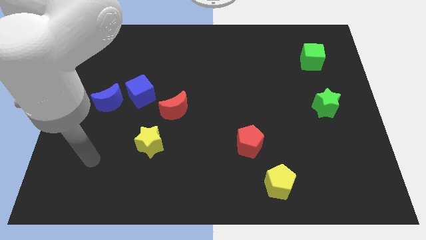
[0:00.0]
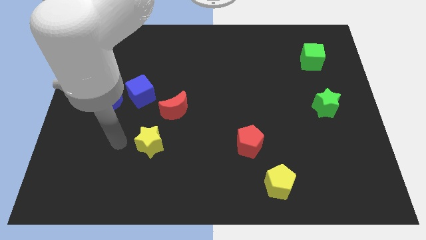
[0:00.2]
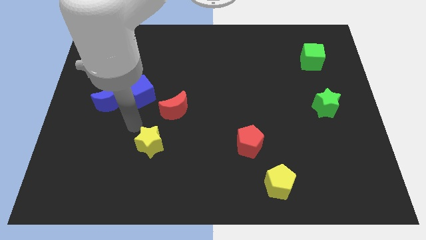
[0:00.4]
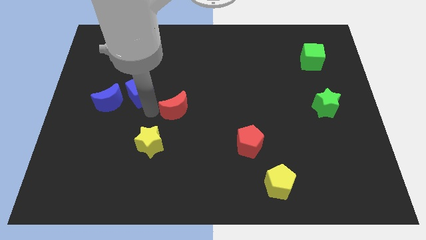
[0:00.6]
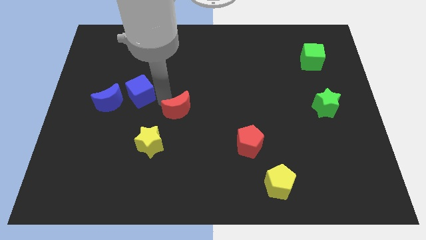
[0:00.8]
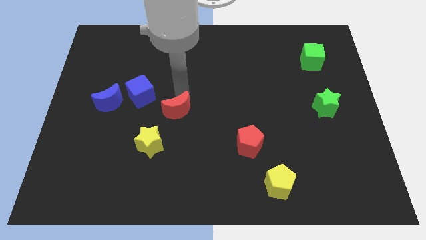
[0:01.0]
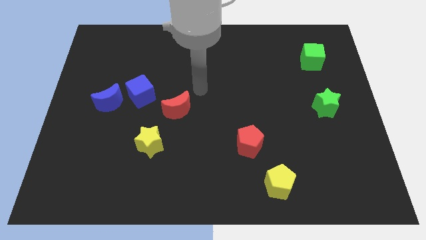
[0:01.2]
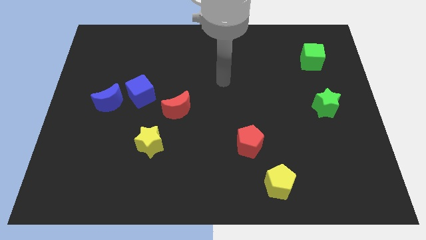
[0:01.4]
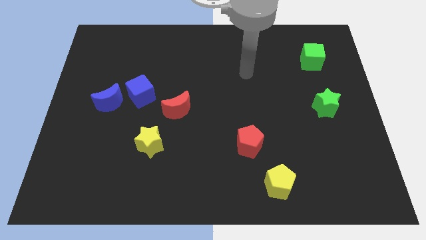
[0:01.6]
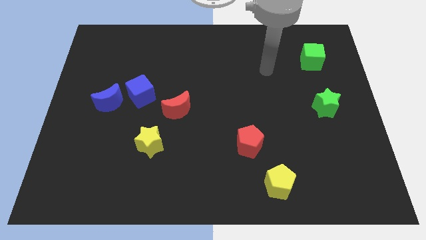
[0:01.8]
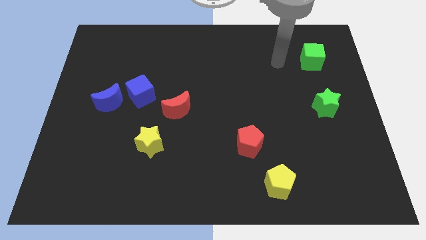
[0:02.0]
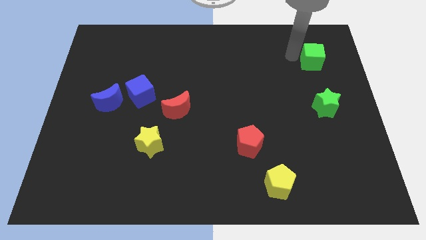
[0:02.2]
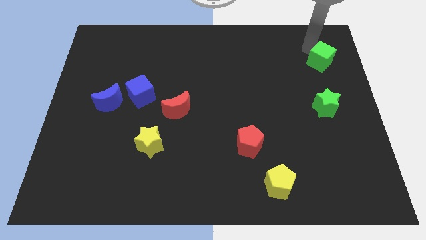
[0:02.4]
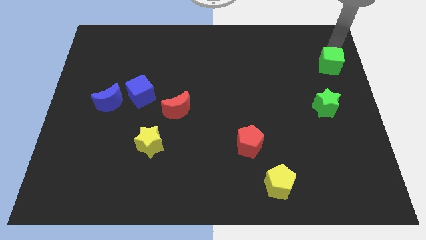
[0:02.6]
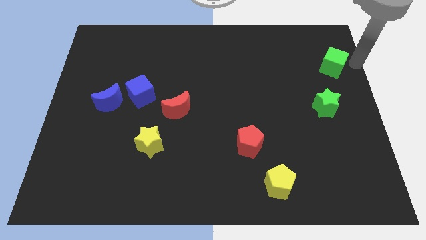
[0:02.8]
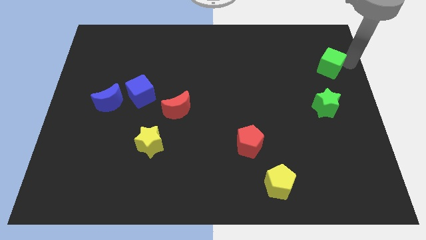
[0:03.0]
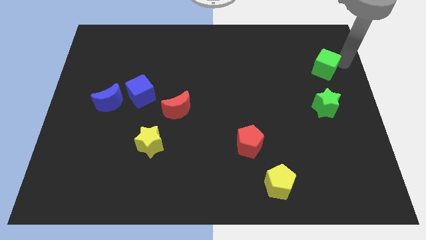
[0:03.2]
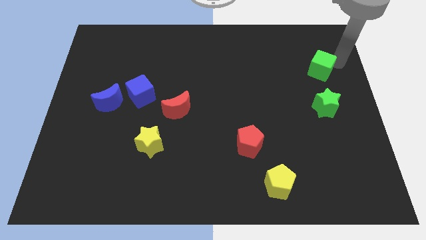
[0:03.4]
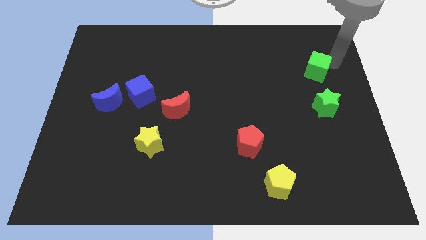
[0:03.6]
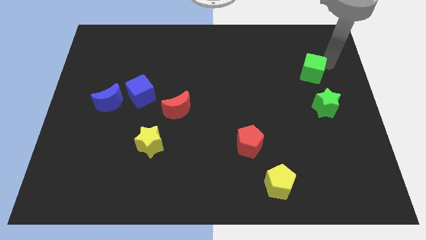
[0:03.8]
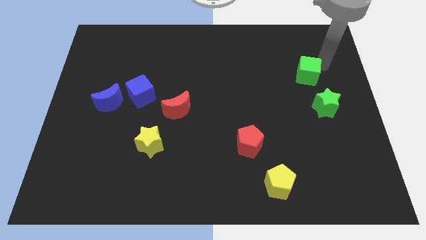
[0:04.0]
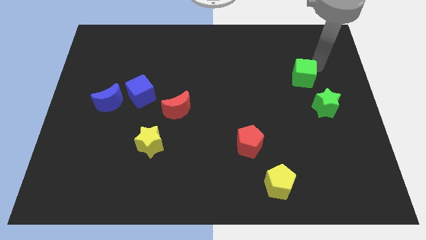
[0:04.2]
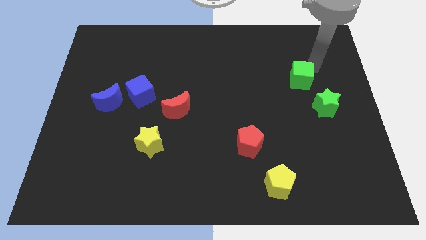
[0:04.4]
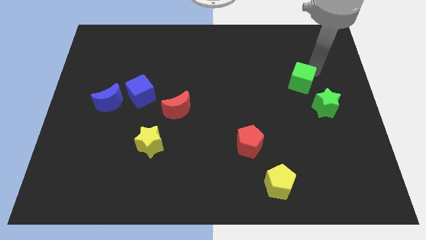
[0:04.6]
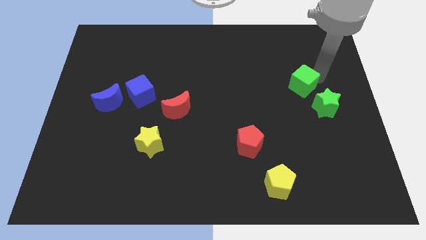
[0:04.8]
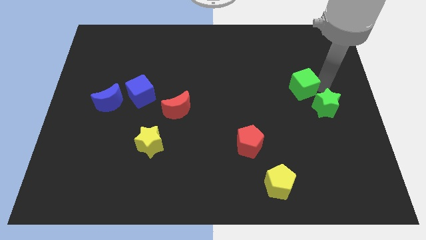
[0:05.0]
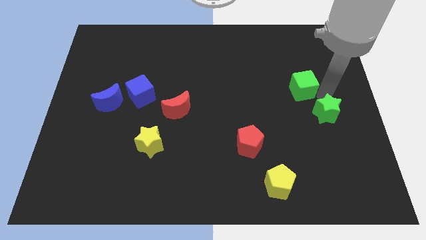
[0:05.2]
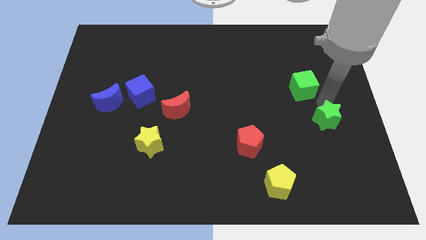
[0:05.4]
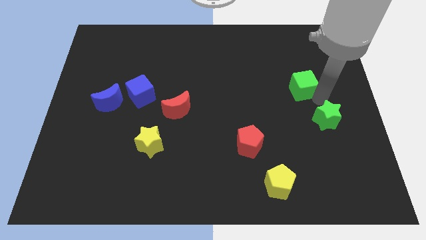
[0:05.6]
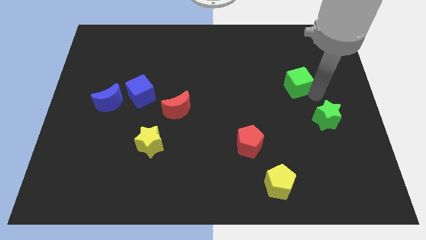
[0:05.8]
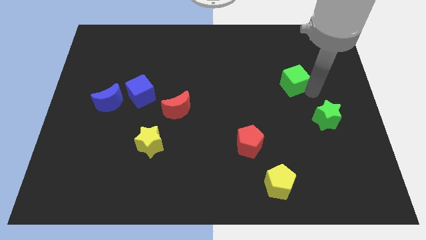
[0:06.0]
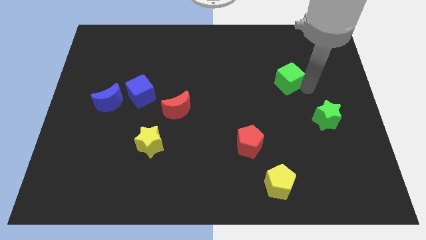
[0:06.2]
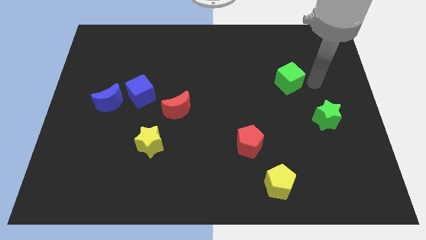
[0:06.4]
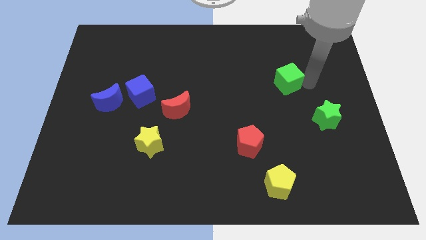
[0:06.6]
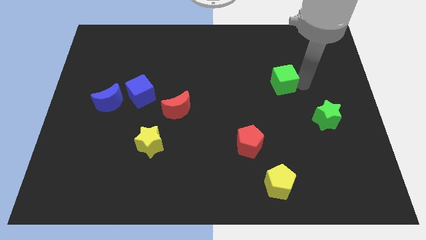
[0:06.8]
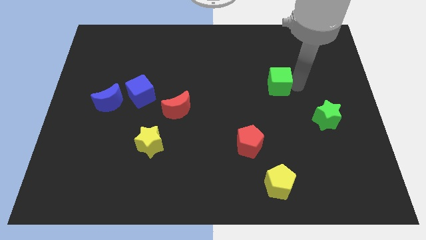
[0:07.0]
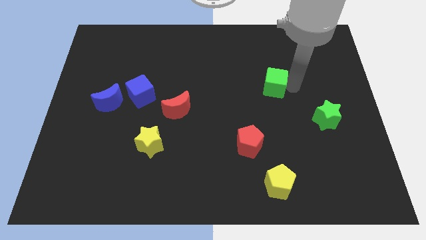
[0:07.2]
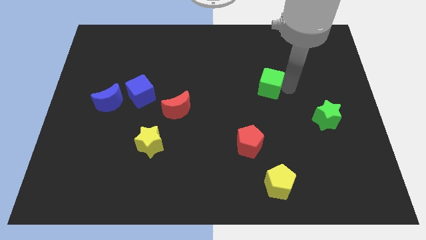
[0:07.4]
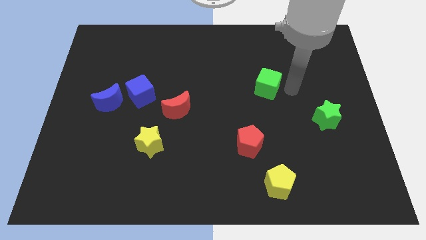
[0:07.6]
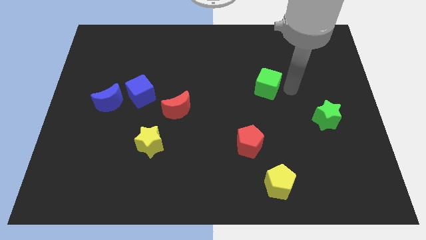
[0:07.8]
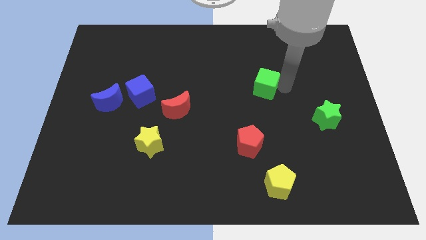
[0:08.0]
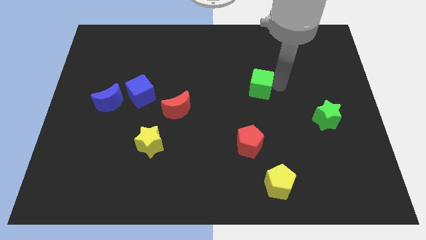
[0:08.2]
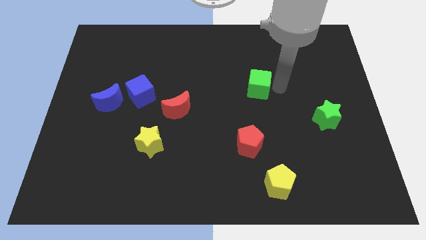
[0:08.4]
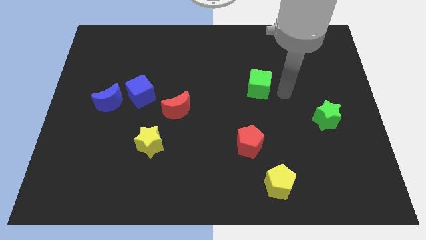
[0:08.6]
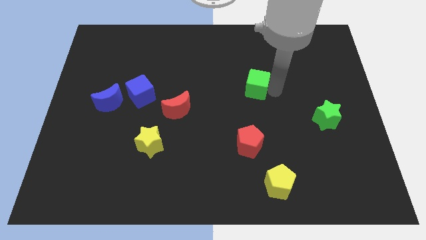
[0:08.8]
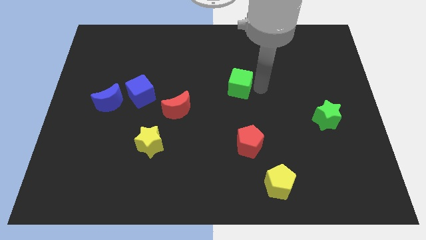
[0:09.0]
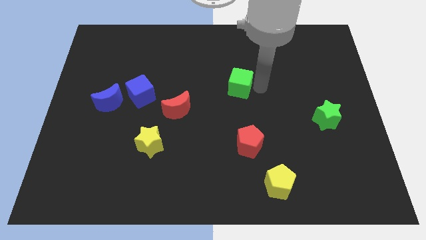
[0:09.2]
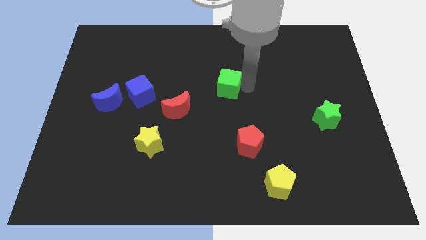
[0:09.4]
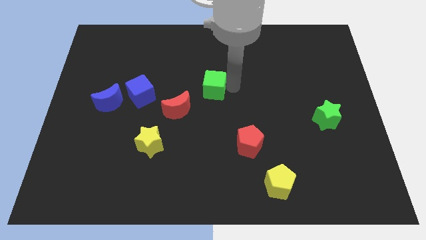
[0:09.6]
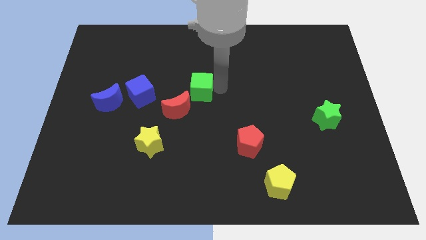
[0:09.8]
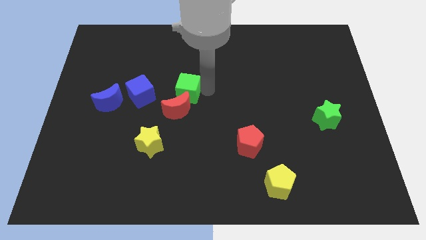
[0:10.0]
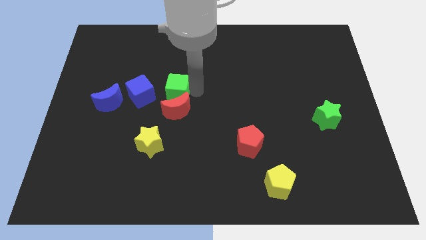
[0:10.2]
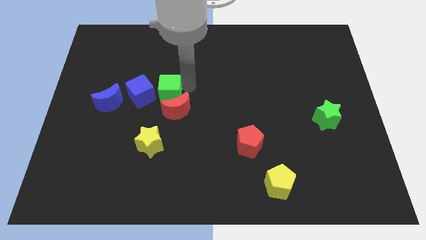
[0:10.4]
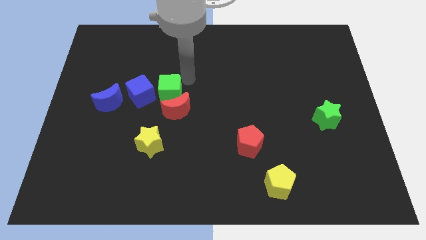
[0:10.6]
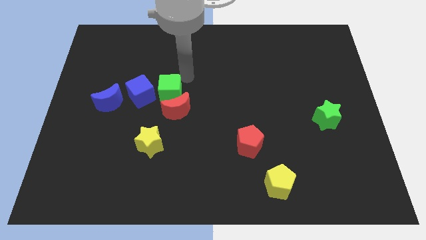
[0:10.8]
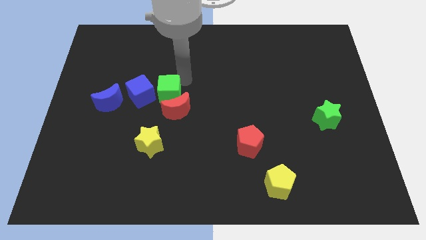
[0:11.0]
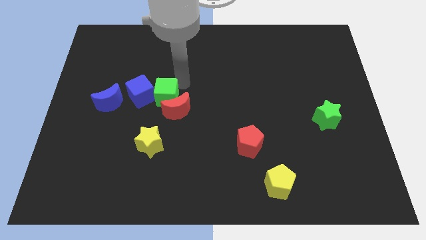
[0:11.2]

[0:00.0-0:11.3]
move the green cube to the left side of the red moon

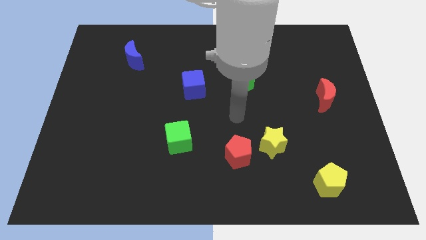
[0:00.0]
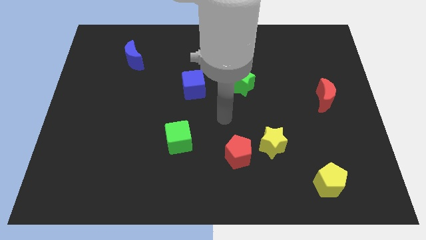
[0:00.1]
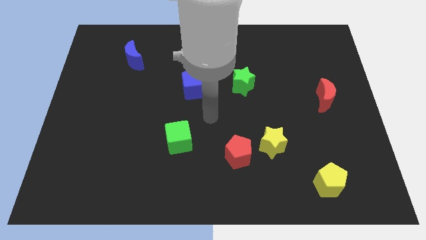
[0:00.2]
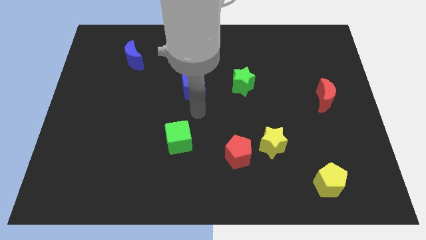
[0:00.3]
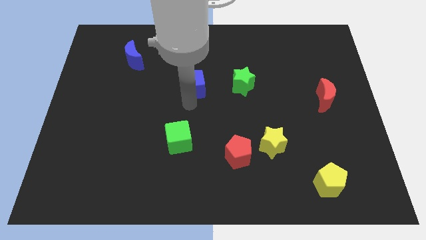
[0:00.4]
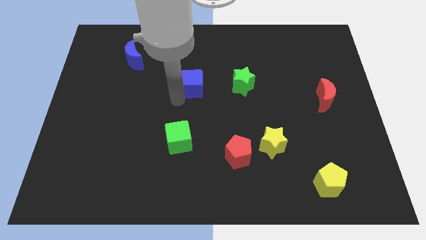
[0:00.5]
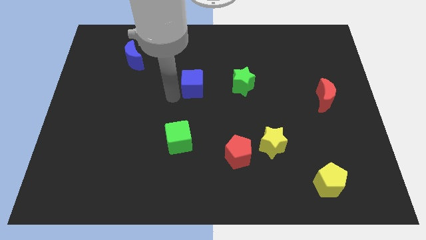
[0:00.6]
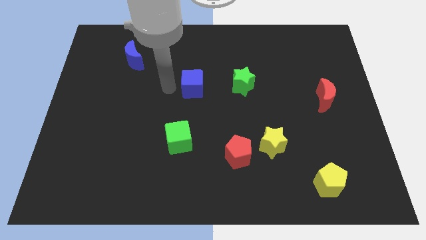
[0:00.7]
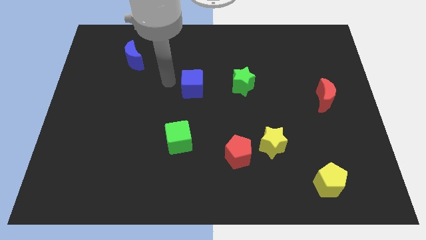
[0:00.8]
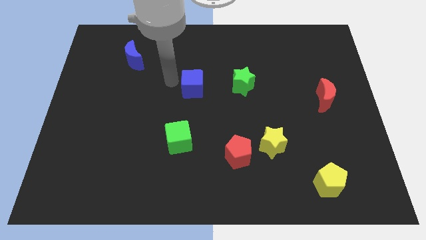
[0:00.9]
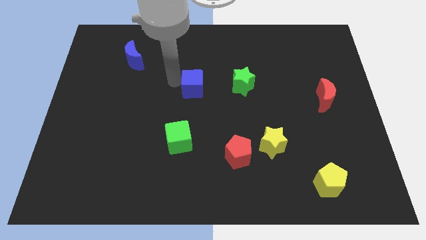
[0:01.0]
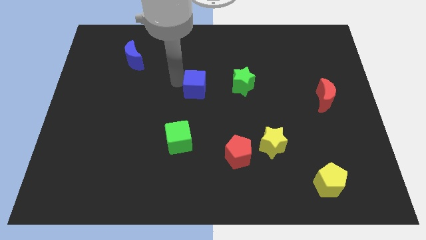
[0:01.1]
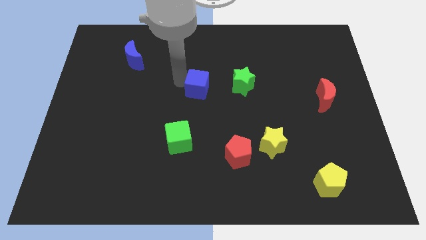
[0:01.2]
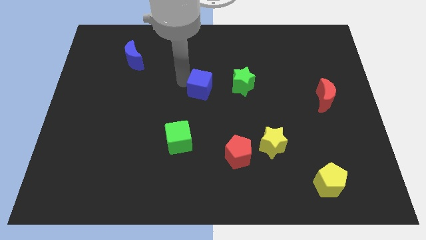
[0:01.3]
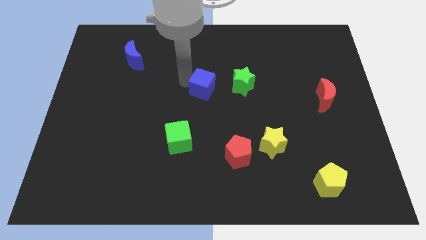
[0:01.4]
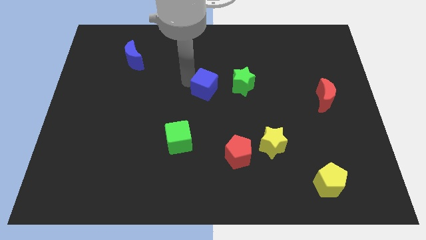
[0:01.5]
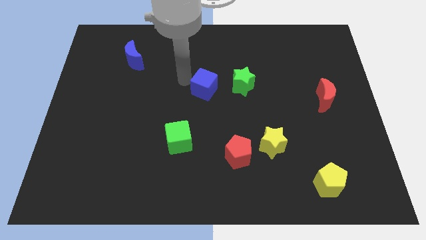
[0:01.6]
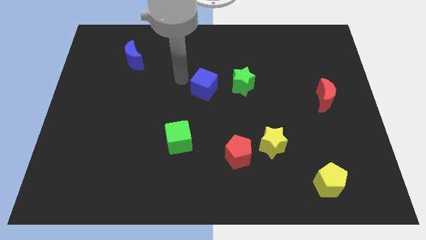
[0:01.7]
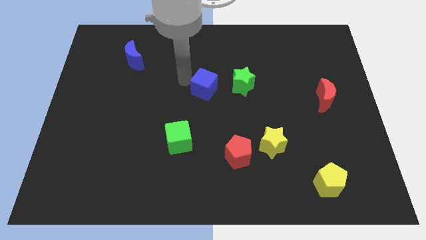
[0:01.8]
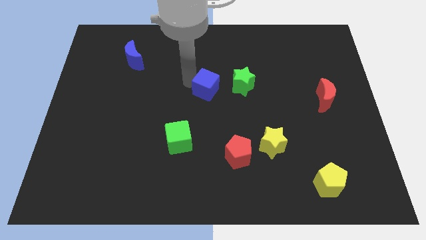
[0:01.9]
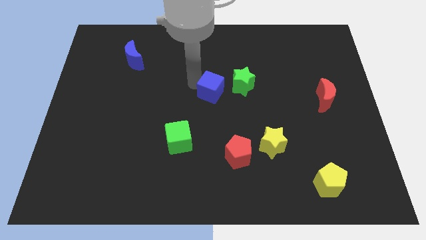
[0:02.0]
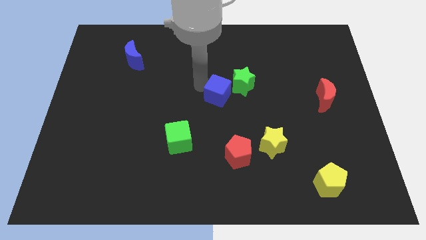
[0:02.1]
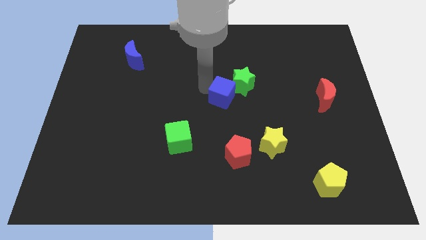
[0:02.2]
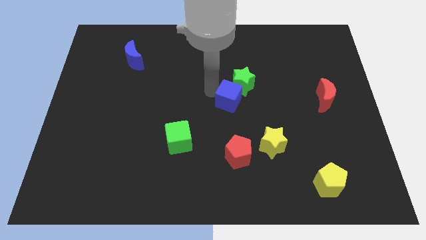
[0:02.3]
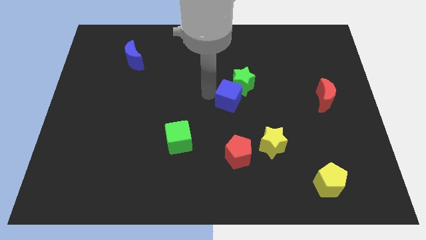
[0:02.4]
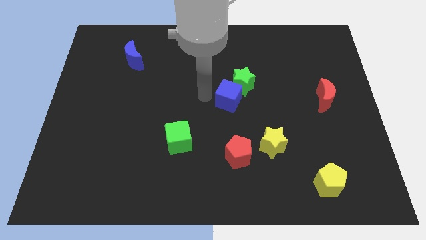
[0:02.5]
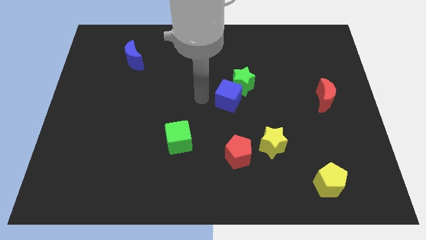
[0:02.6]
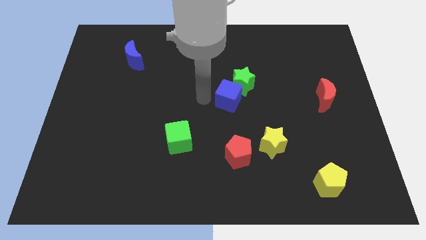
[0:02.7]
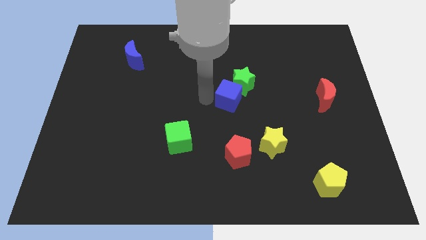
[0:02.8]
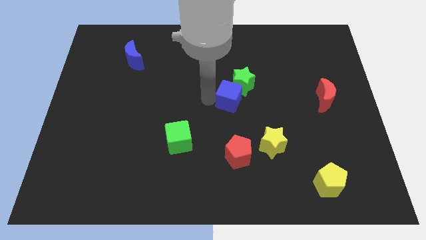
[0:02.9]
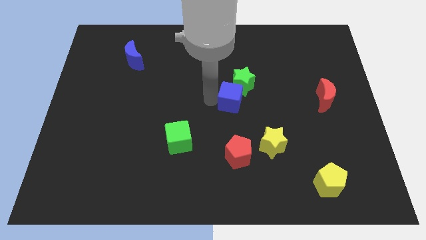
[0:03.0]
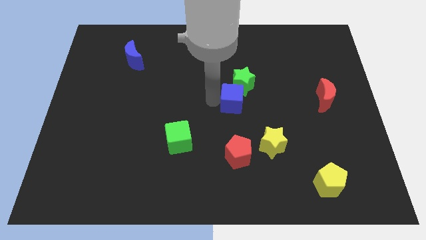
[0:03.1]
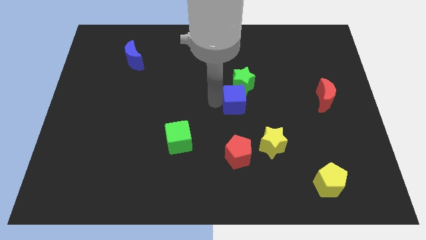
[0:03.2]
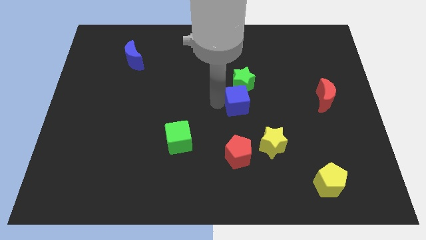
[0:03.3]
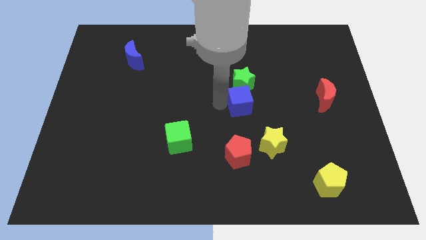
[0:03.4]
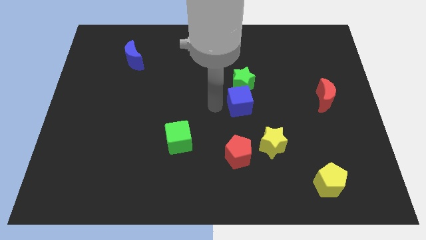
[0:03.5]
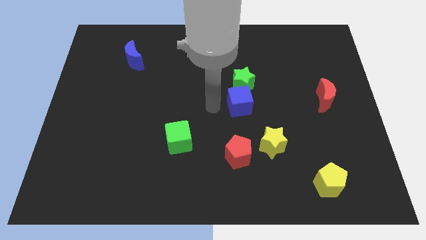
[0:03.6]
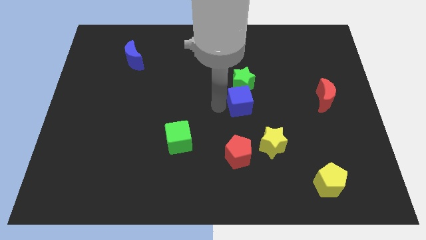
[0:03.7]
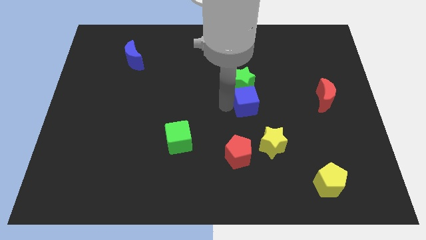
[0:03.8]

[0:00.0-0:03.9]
move the blue cube diagonally down and to the right of the green star
